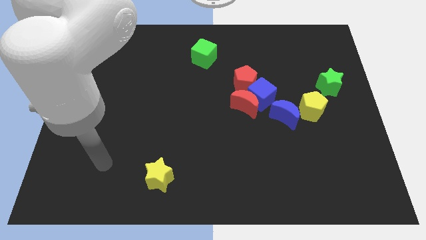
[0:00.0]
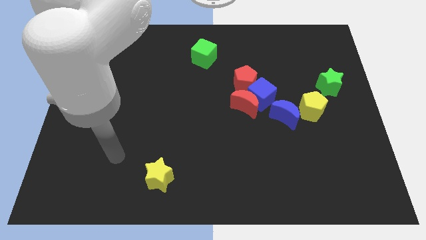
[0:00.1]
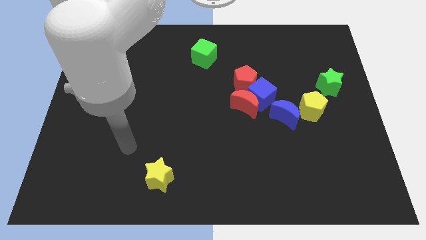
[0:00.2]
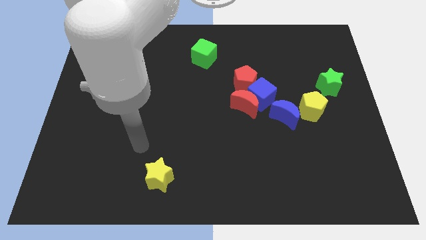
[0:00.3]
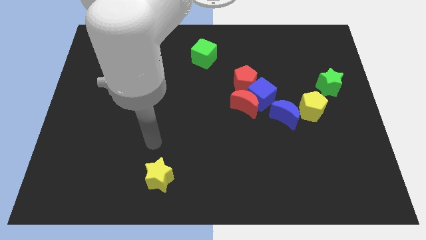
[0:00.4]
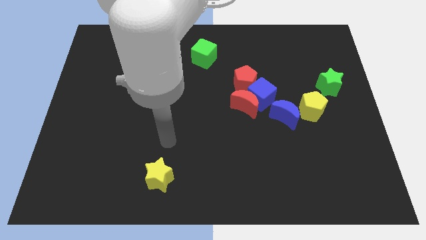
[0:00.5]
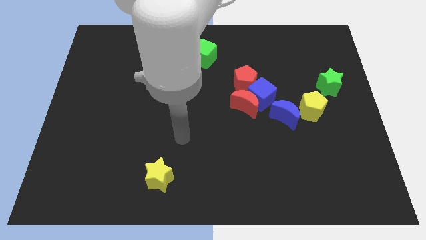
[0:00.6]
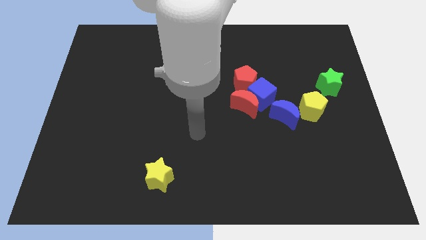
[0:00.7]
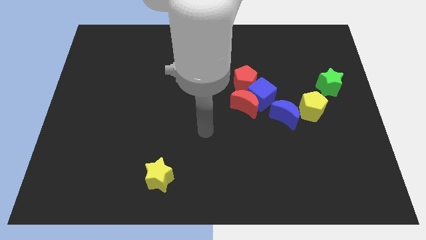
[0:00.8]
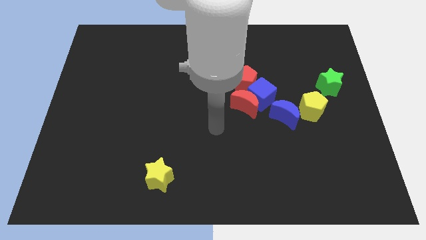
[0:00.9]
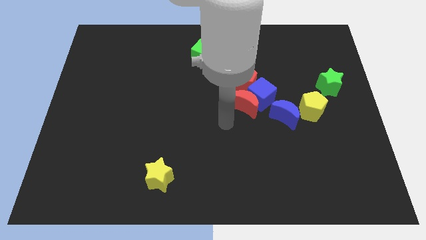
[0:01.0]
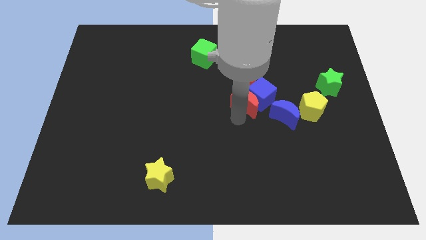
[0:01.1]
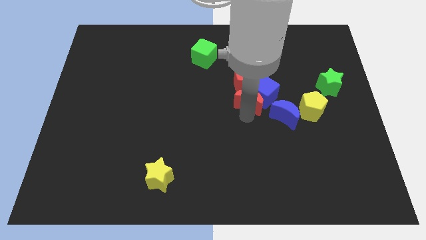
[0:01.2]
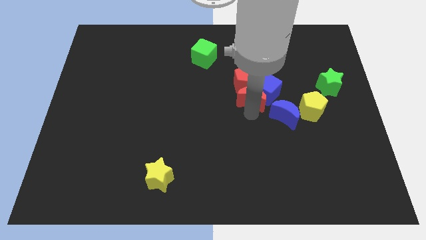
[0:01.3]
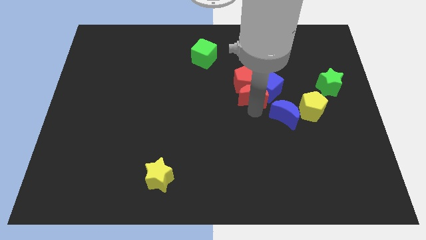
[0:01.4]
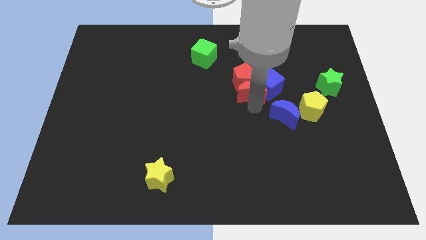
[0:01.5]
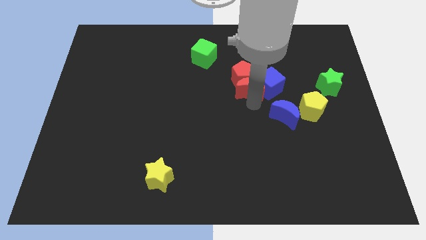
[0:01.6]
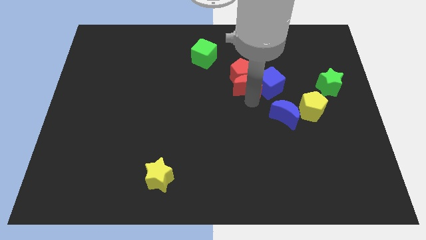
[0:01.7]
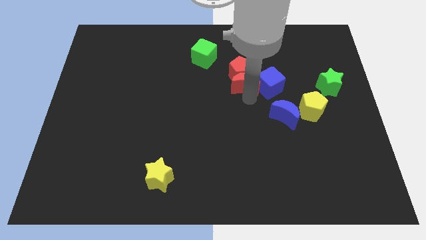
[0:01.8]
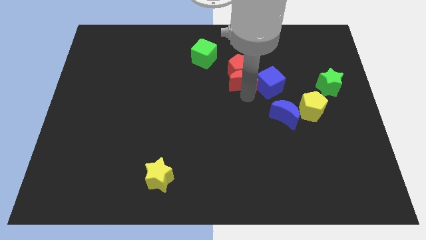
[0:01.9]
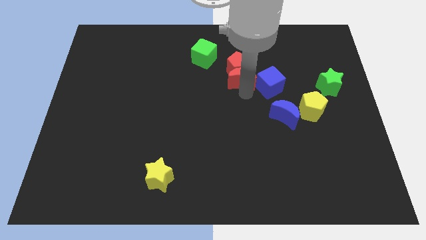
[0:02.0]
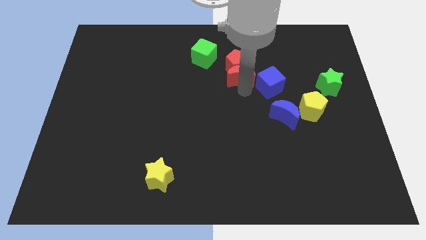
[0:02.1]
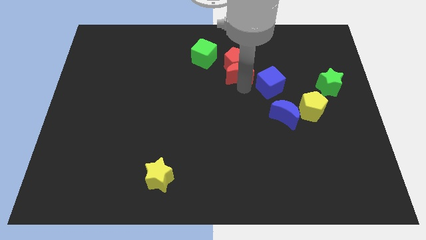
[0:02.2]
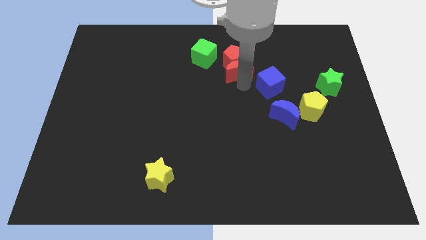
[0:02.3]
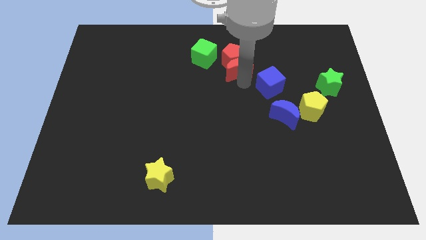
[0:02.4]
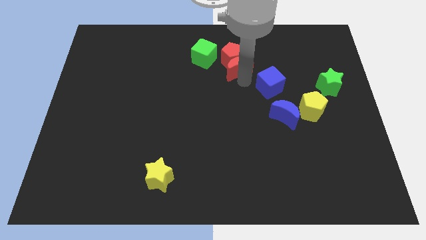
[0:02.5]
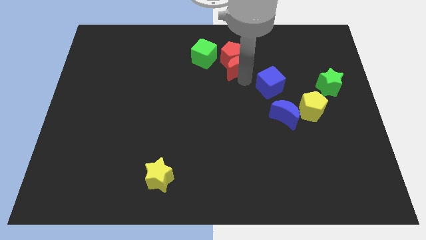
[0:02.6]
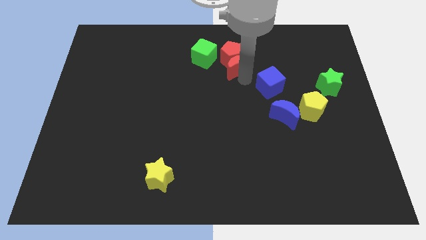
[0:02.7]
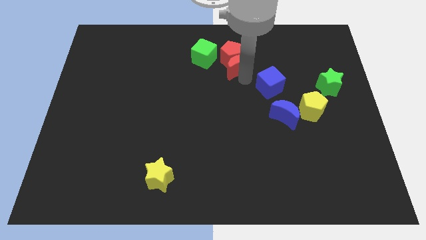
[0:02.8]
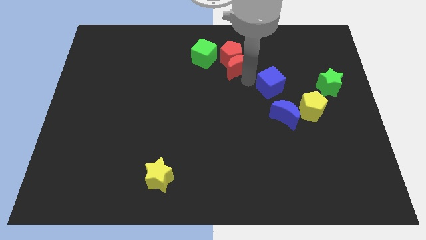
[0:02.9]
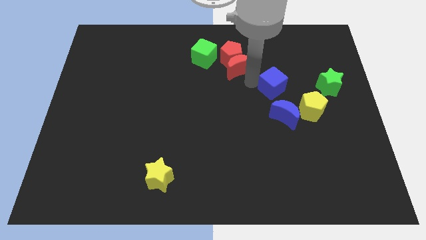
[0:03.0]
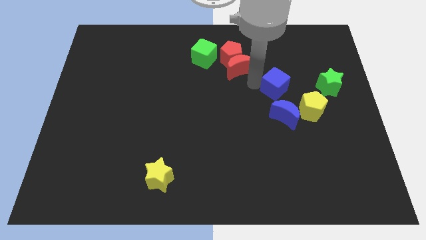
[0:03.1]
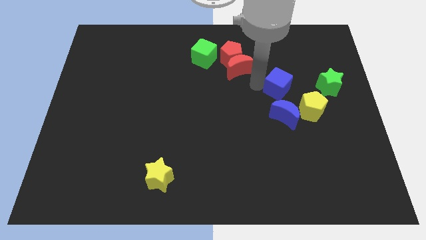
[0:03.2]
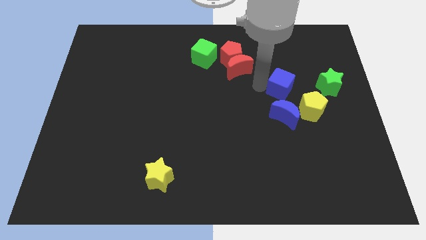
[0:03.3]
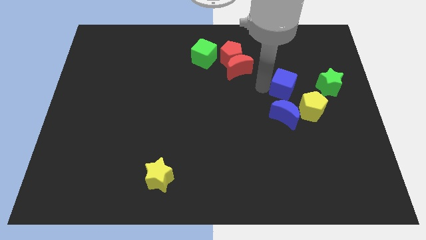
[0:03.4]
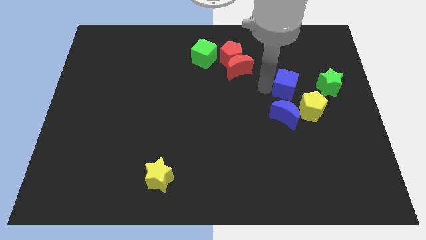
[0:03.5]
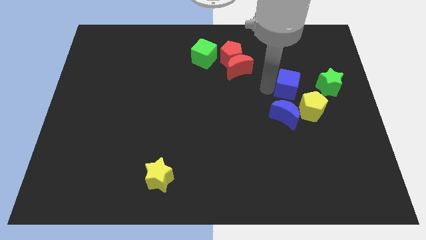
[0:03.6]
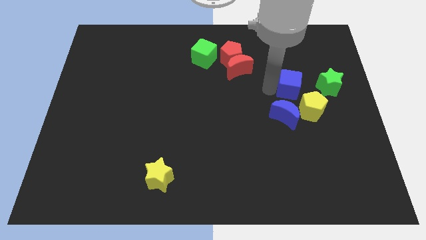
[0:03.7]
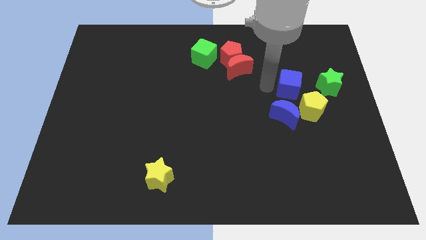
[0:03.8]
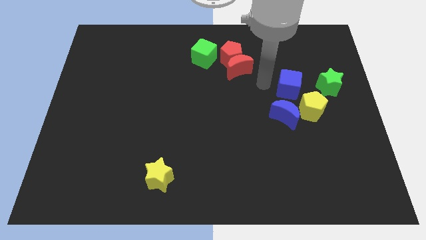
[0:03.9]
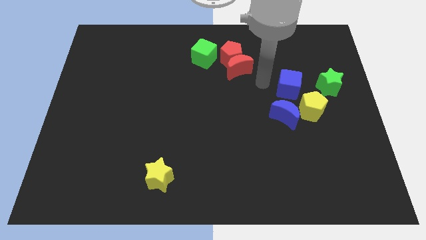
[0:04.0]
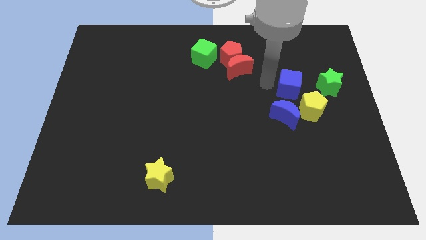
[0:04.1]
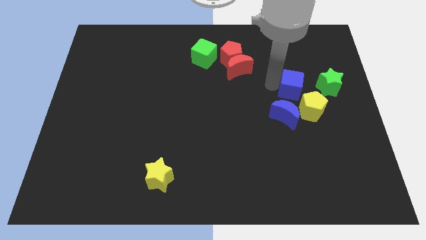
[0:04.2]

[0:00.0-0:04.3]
pull the blue cube apart from the red moon, red pentagon, and blue moon

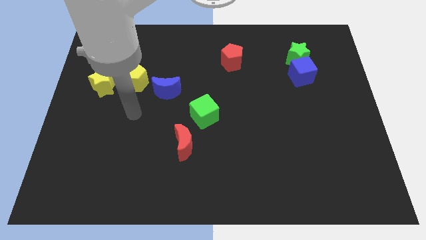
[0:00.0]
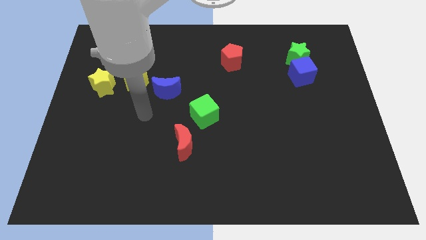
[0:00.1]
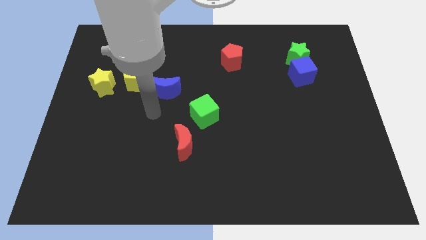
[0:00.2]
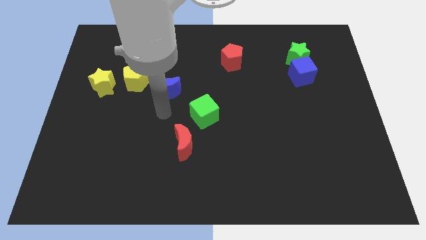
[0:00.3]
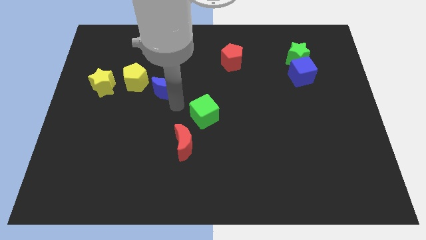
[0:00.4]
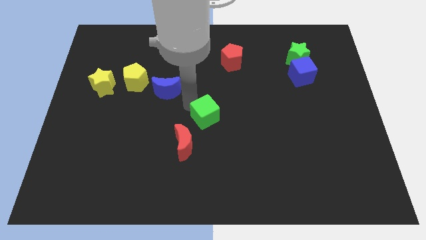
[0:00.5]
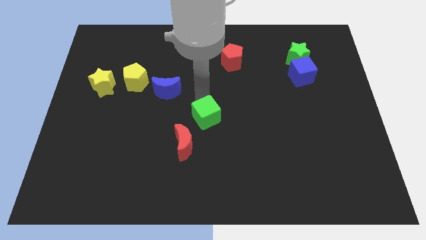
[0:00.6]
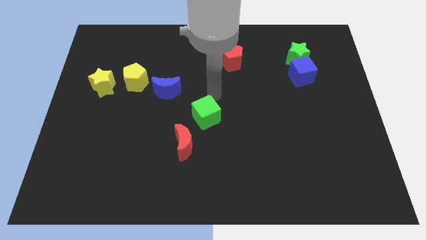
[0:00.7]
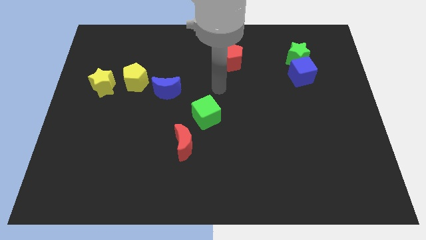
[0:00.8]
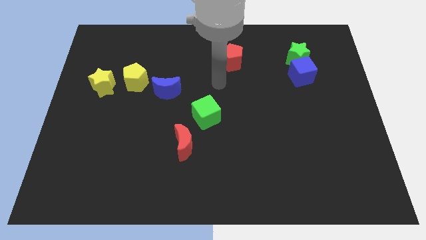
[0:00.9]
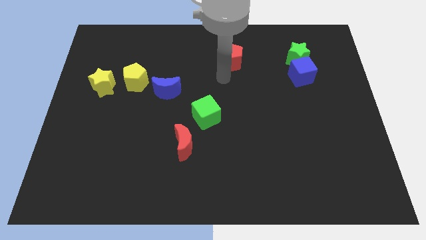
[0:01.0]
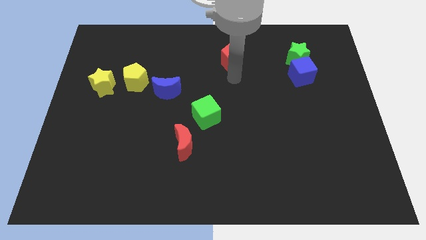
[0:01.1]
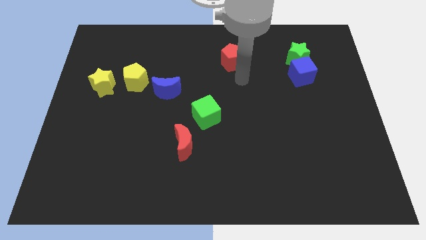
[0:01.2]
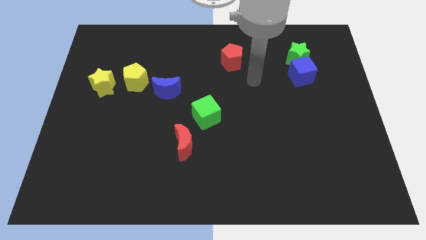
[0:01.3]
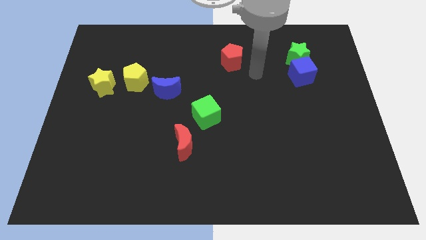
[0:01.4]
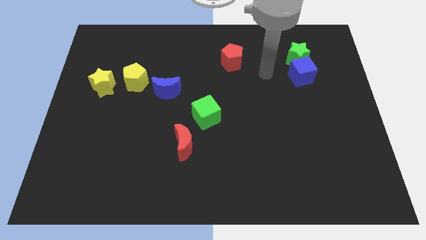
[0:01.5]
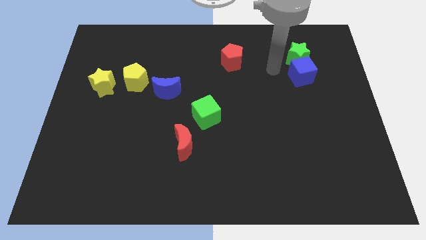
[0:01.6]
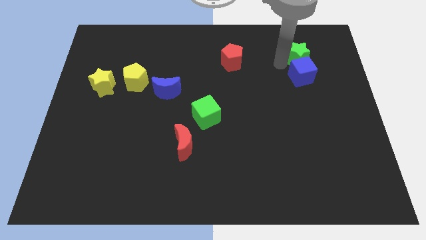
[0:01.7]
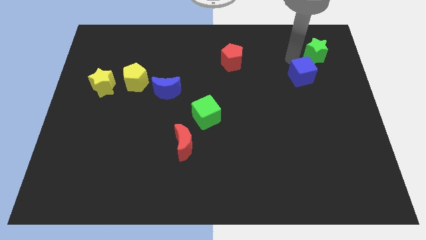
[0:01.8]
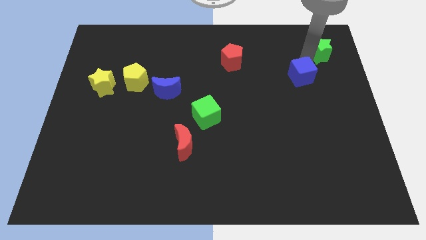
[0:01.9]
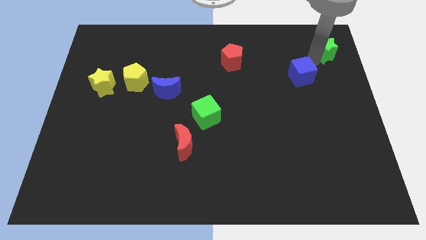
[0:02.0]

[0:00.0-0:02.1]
separate the blue cube from the green star

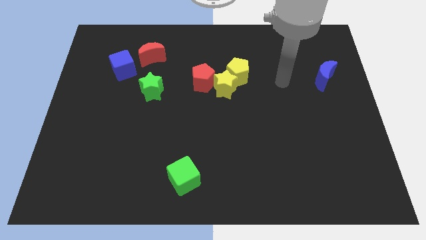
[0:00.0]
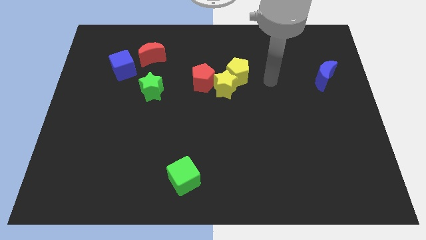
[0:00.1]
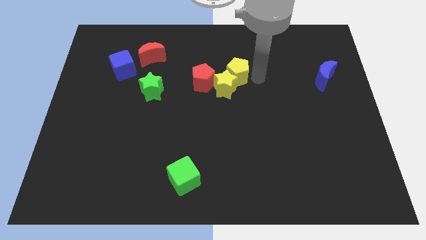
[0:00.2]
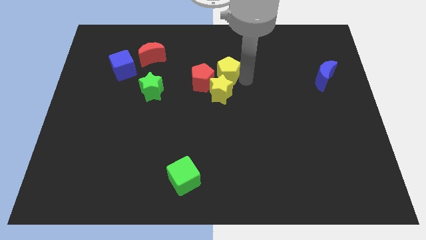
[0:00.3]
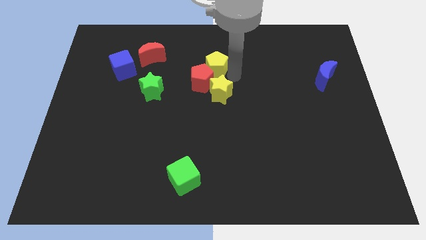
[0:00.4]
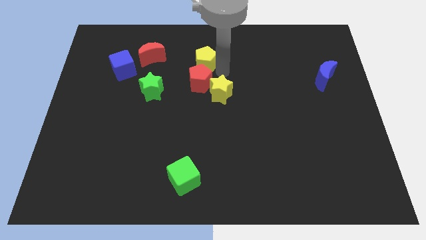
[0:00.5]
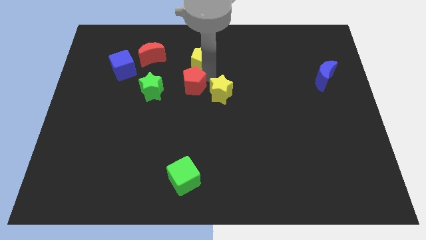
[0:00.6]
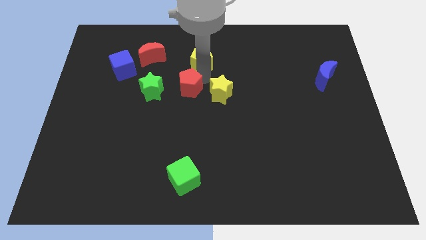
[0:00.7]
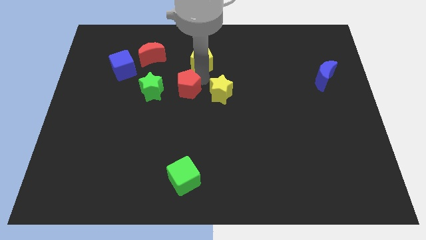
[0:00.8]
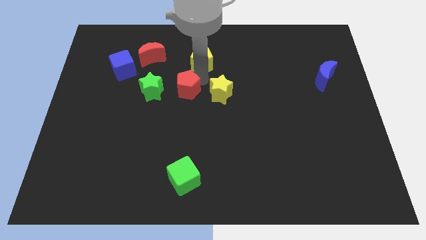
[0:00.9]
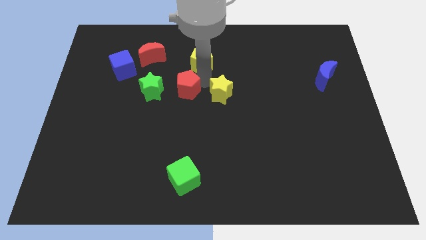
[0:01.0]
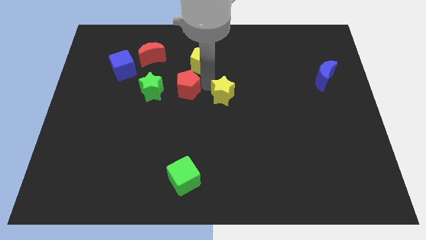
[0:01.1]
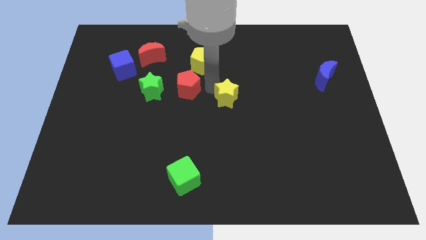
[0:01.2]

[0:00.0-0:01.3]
separate the yellow star from the yellow pentagon and red pentagon

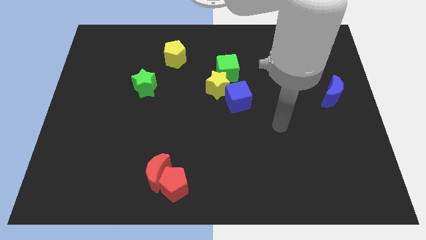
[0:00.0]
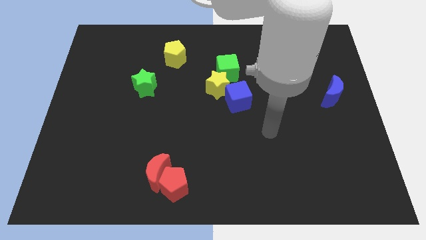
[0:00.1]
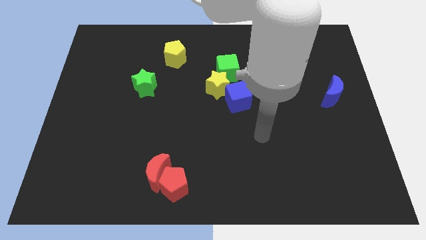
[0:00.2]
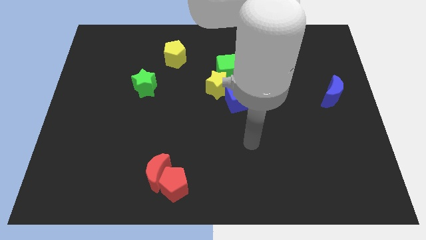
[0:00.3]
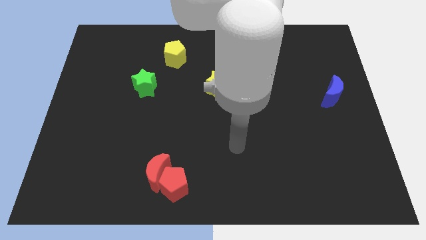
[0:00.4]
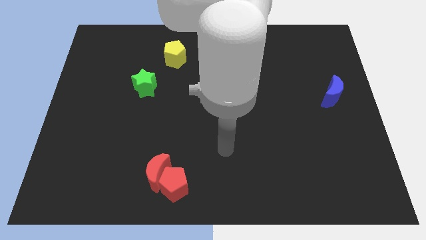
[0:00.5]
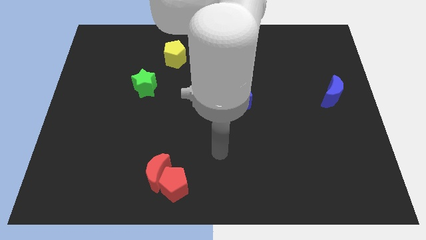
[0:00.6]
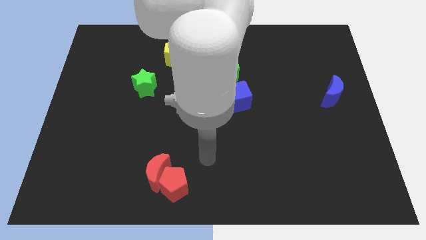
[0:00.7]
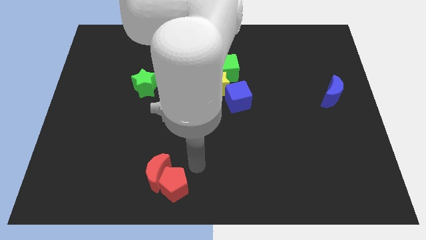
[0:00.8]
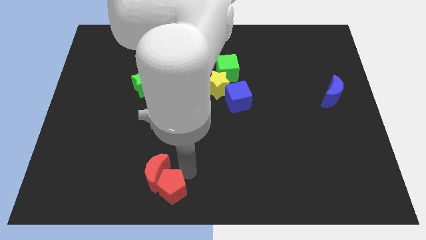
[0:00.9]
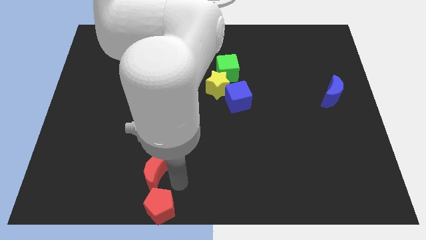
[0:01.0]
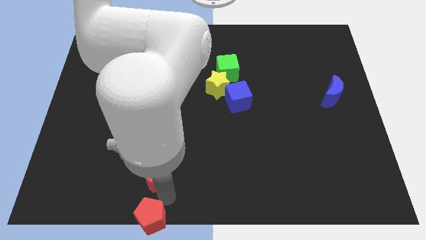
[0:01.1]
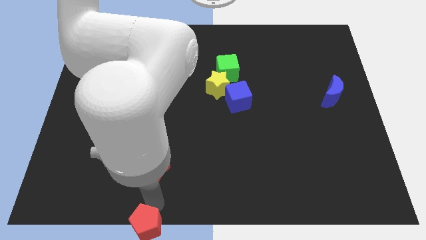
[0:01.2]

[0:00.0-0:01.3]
move the red moon away from the red pentagon

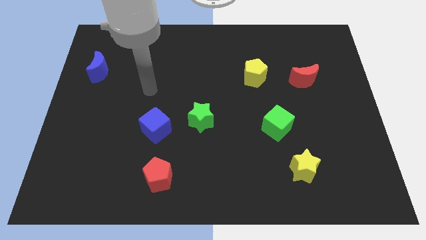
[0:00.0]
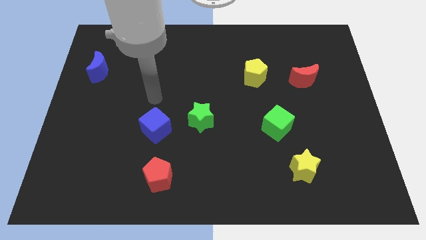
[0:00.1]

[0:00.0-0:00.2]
pull the blue cube apart from the green star
